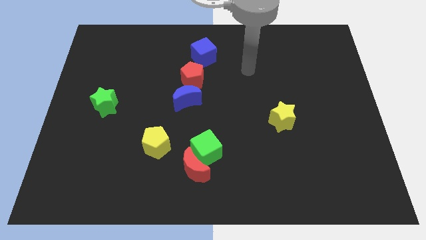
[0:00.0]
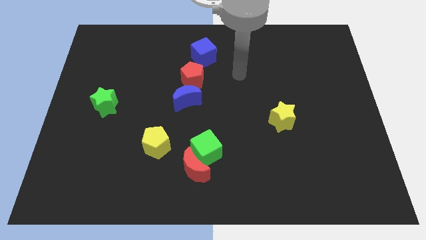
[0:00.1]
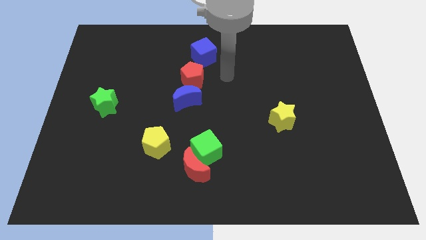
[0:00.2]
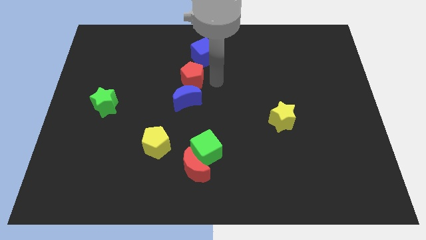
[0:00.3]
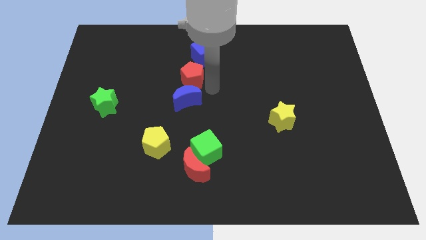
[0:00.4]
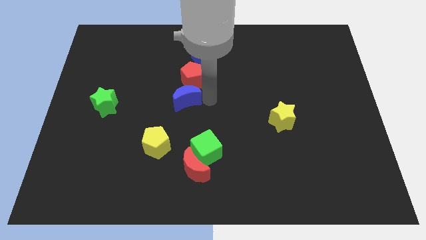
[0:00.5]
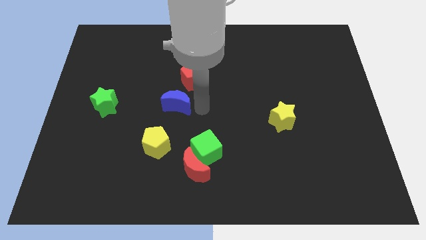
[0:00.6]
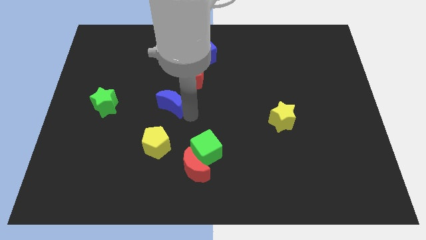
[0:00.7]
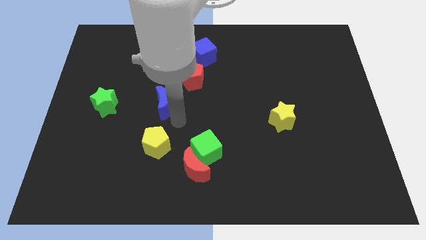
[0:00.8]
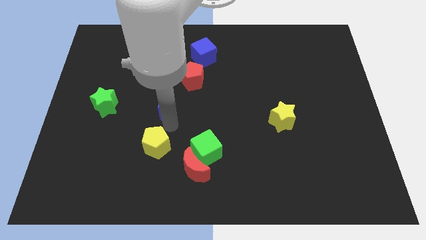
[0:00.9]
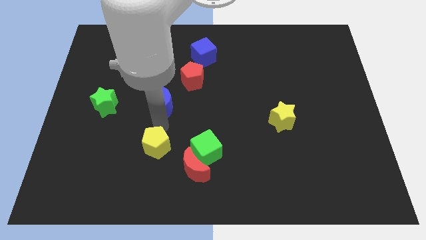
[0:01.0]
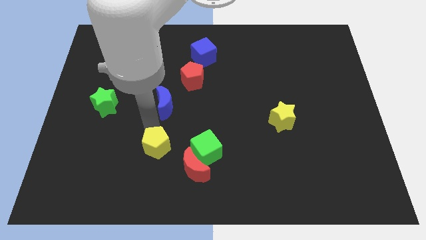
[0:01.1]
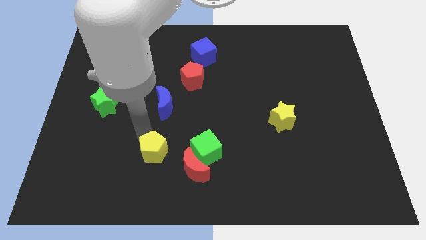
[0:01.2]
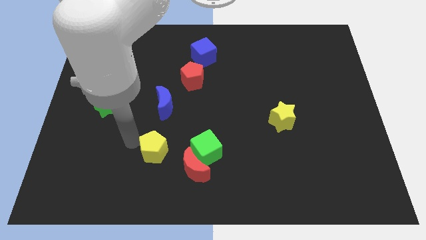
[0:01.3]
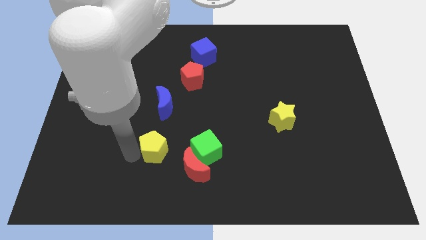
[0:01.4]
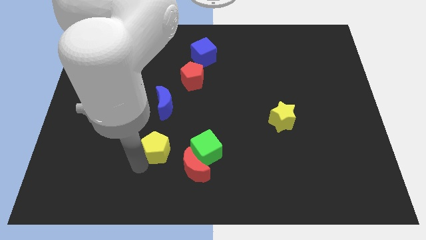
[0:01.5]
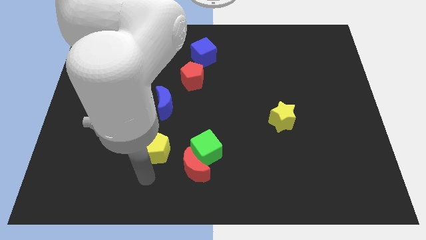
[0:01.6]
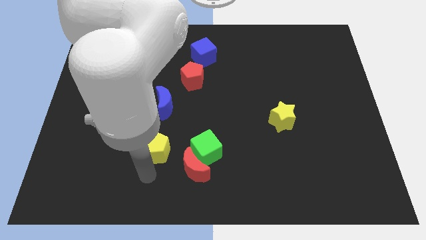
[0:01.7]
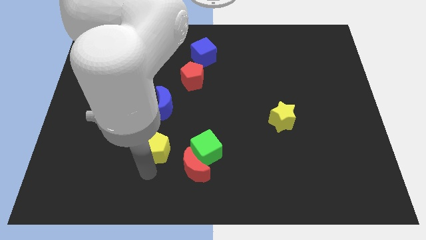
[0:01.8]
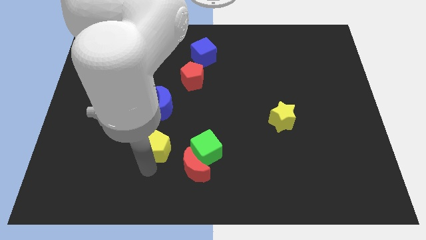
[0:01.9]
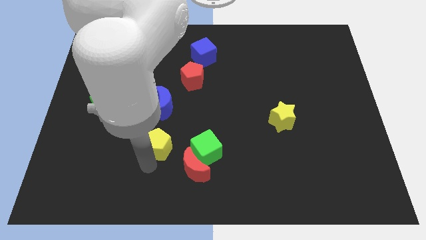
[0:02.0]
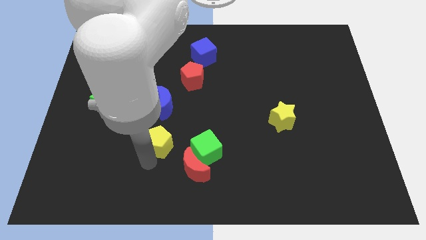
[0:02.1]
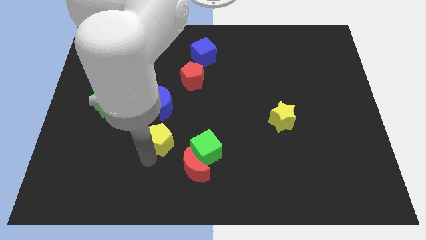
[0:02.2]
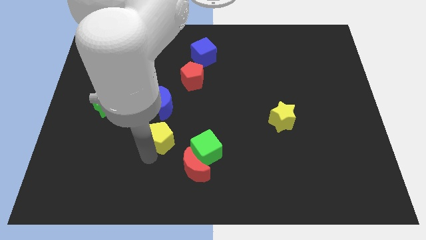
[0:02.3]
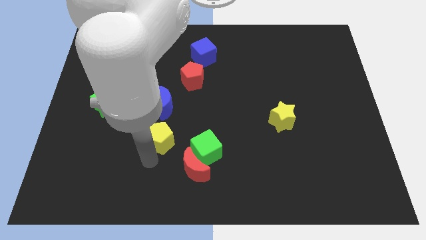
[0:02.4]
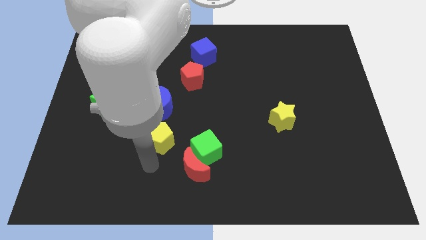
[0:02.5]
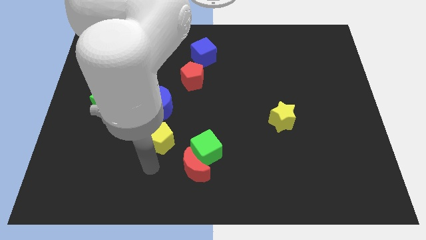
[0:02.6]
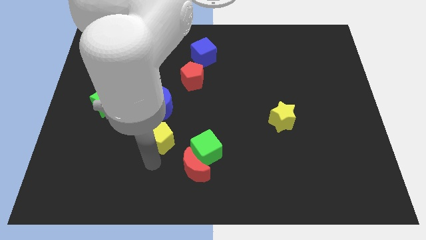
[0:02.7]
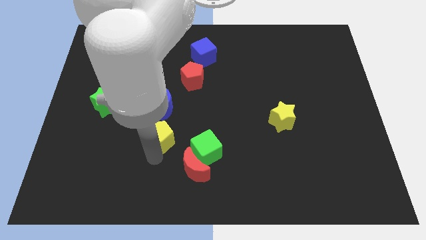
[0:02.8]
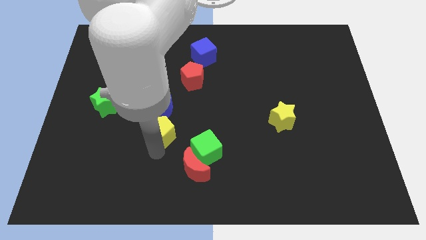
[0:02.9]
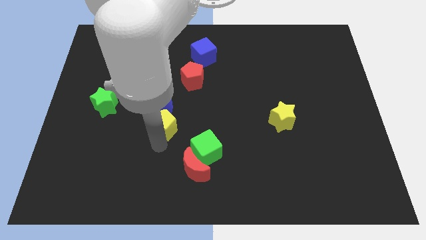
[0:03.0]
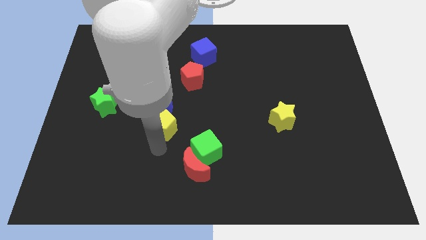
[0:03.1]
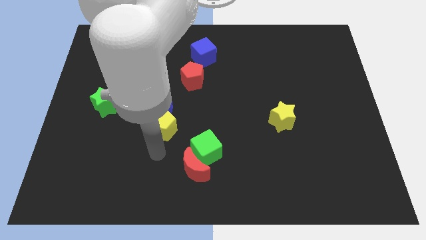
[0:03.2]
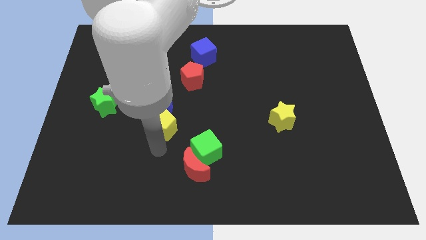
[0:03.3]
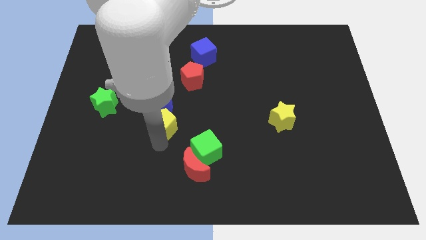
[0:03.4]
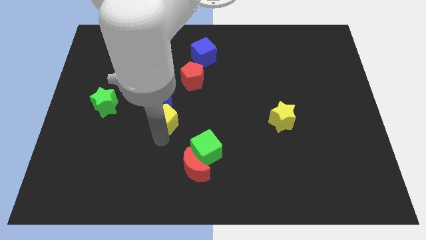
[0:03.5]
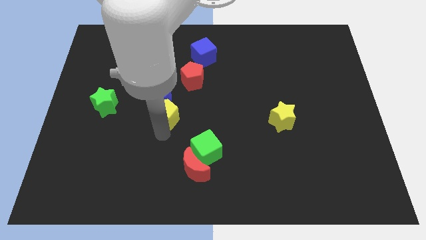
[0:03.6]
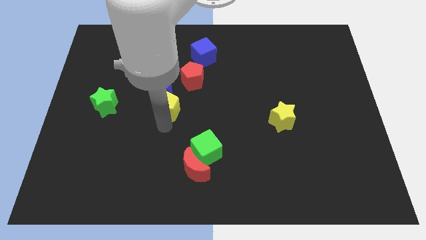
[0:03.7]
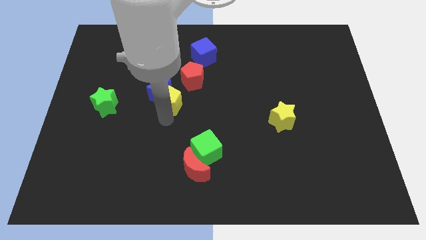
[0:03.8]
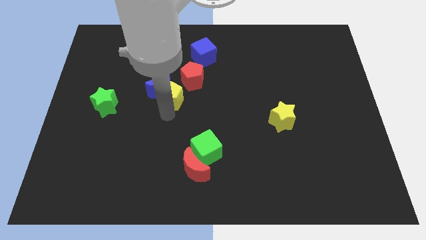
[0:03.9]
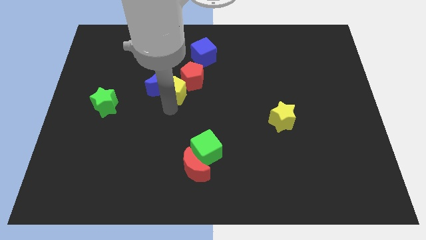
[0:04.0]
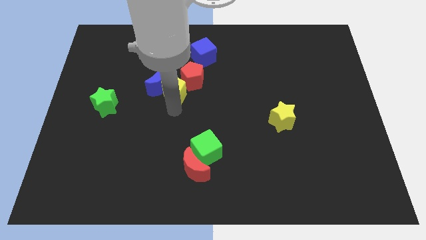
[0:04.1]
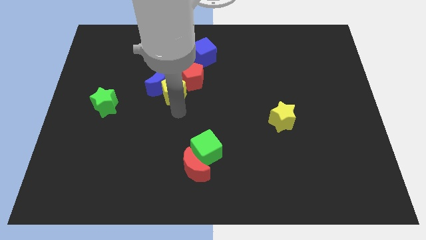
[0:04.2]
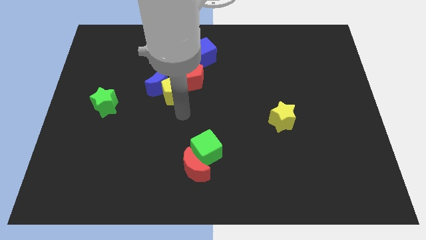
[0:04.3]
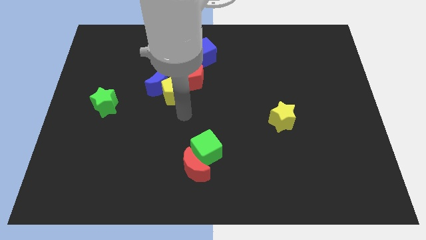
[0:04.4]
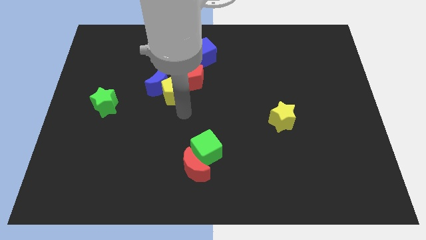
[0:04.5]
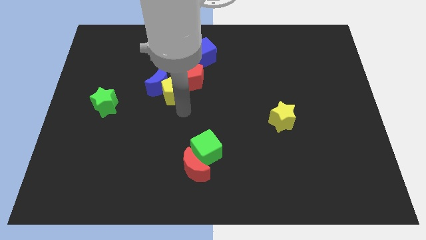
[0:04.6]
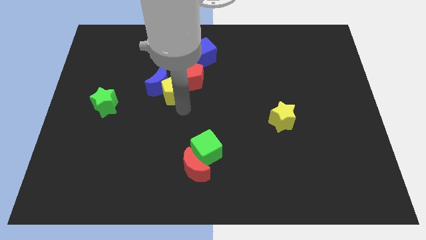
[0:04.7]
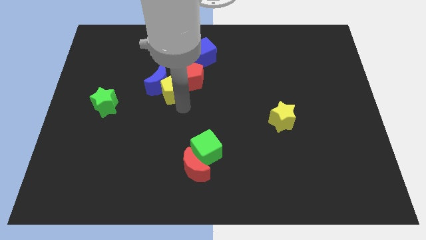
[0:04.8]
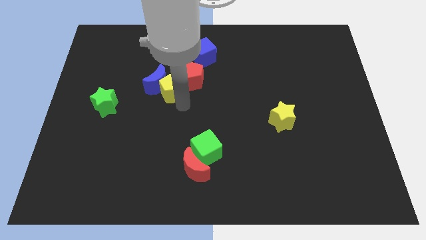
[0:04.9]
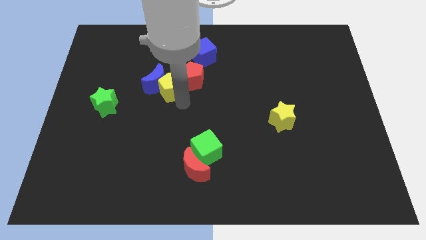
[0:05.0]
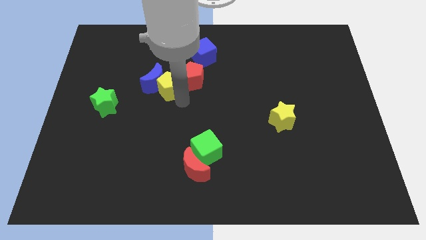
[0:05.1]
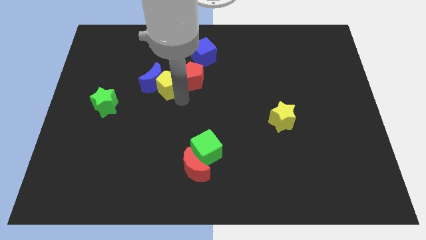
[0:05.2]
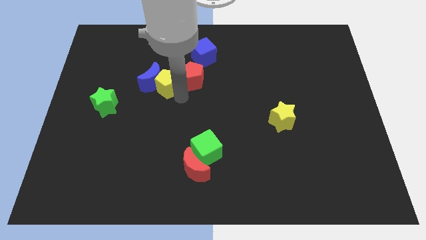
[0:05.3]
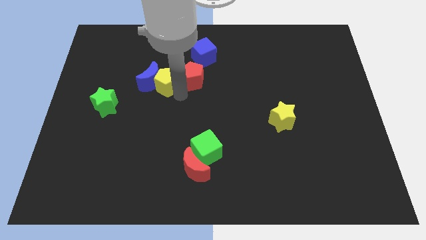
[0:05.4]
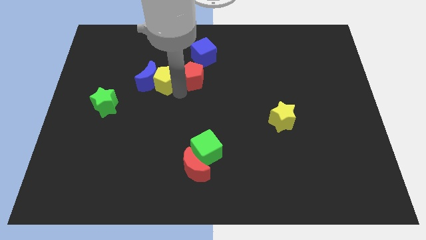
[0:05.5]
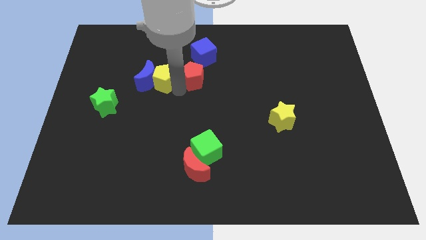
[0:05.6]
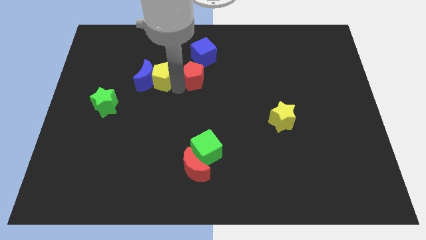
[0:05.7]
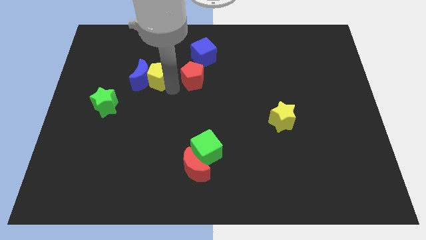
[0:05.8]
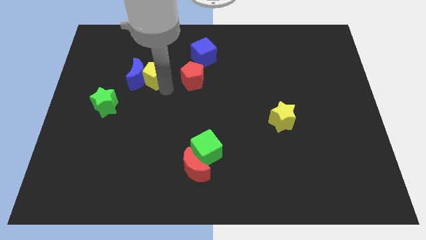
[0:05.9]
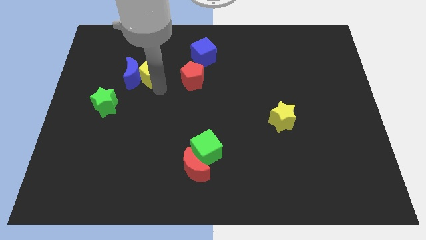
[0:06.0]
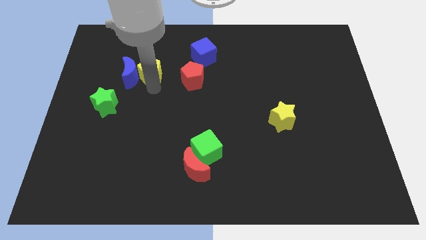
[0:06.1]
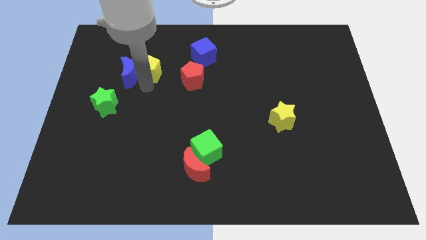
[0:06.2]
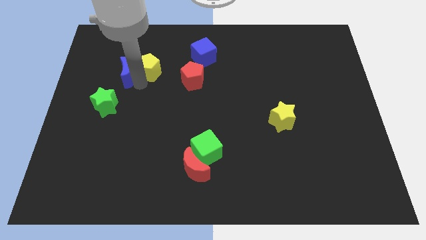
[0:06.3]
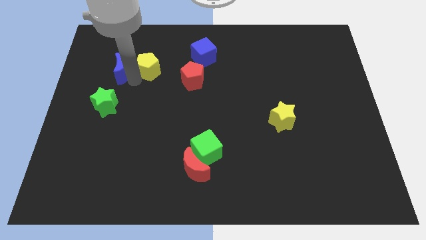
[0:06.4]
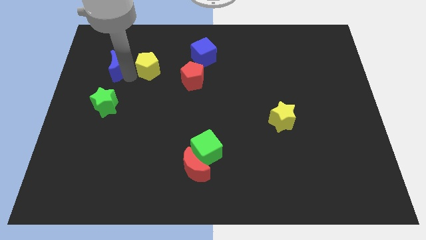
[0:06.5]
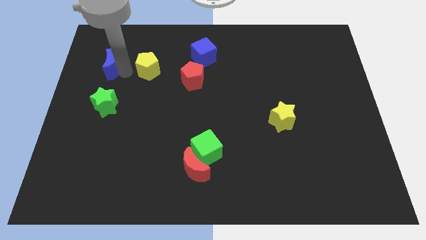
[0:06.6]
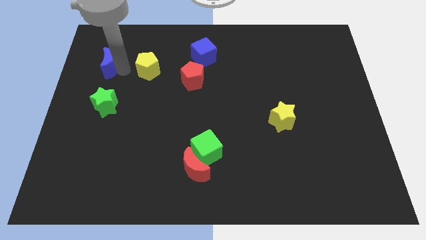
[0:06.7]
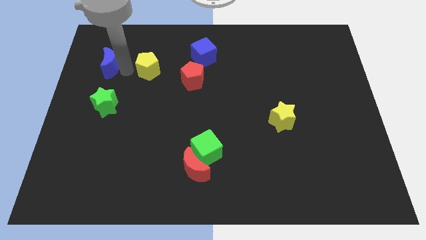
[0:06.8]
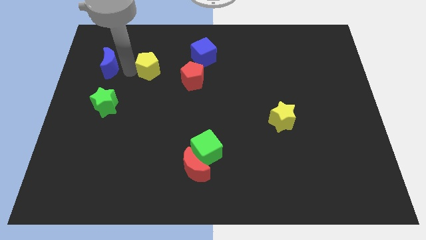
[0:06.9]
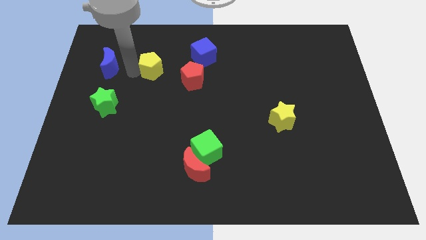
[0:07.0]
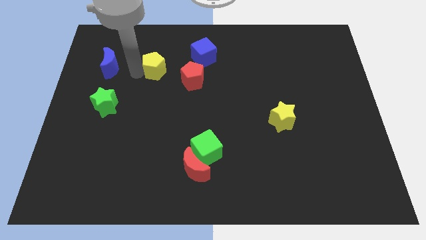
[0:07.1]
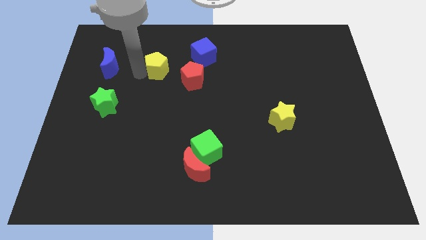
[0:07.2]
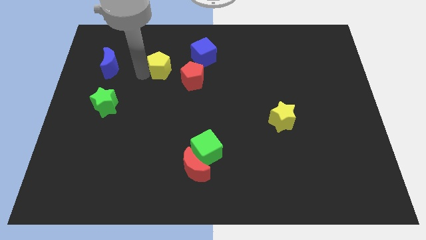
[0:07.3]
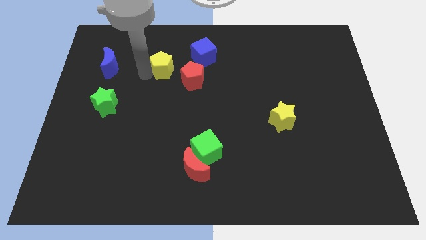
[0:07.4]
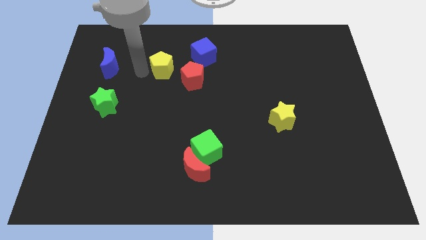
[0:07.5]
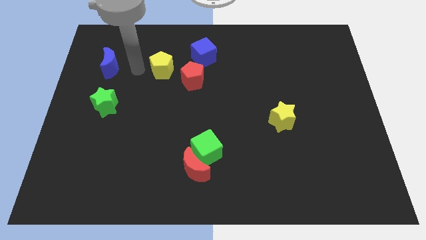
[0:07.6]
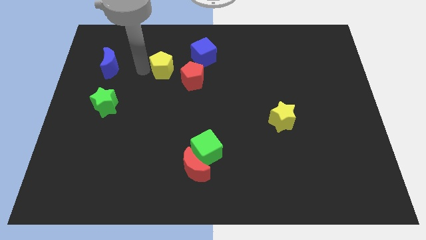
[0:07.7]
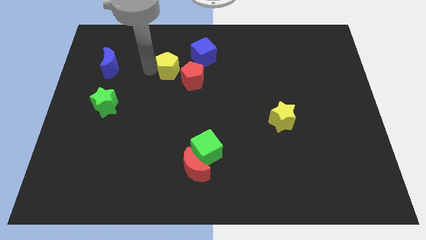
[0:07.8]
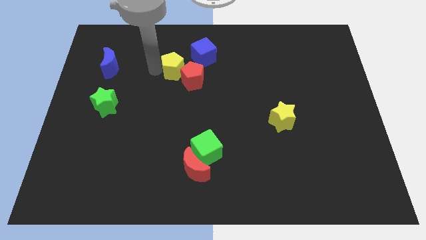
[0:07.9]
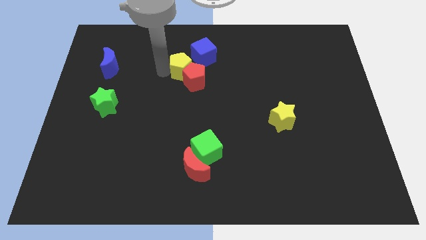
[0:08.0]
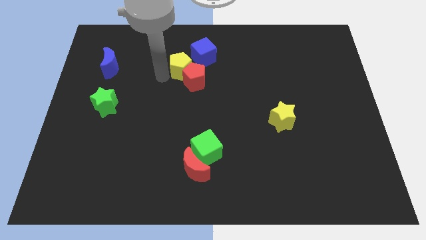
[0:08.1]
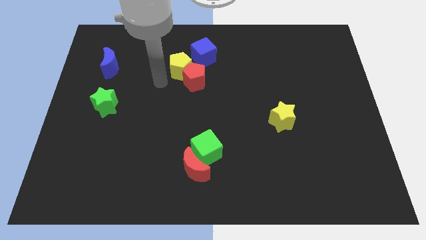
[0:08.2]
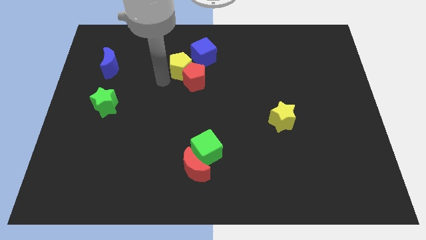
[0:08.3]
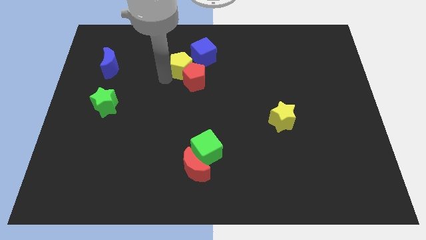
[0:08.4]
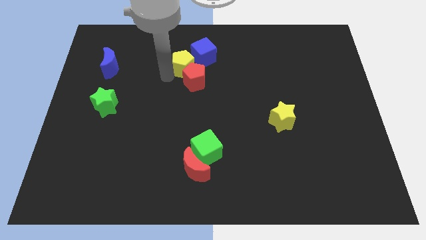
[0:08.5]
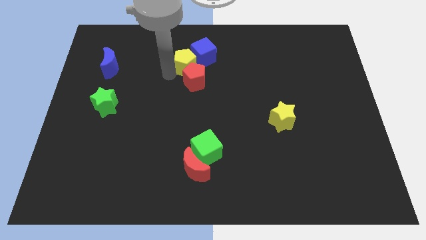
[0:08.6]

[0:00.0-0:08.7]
put the yellow pentagon towards the blue cube
